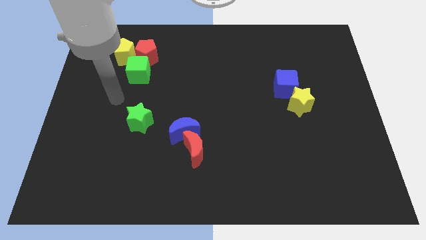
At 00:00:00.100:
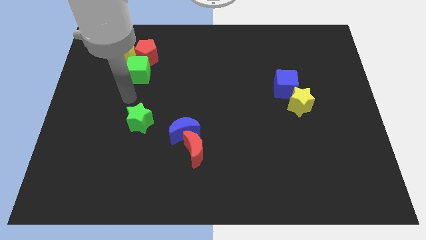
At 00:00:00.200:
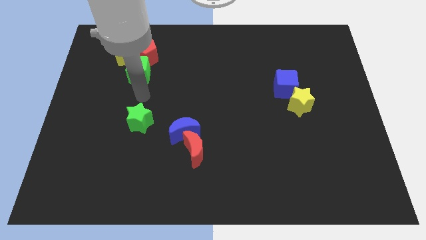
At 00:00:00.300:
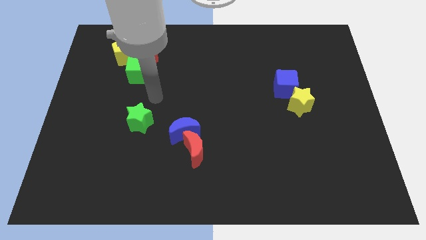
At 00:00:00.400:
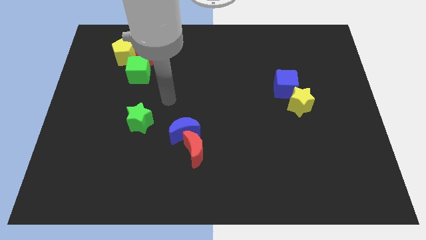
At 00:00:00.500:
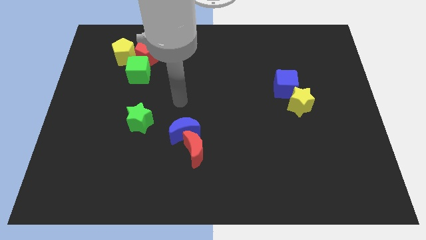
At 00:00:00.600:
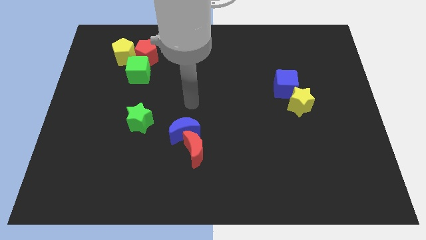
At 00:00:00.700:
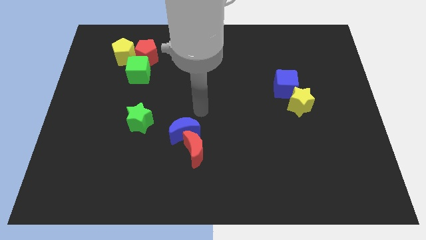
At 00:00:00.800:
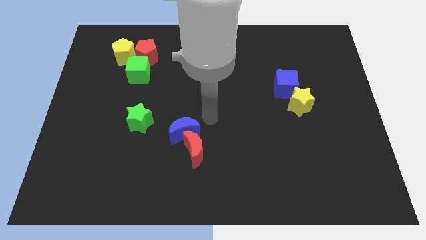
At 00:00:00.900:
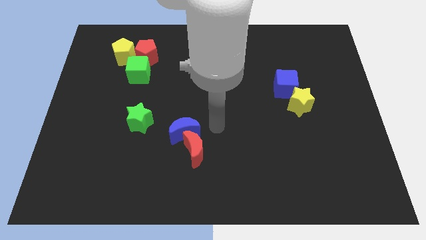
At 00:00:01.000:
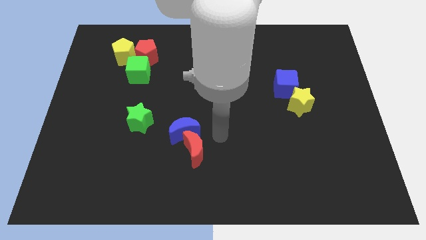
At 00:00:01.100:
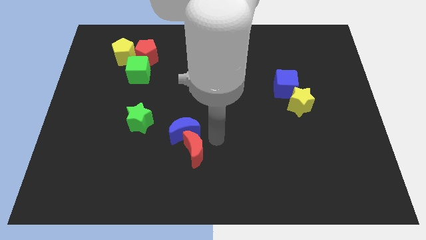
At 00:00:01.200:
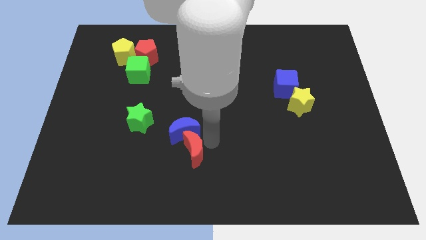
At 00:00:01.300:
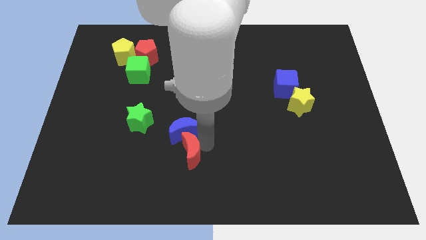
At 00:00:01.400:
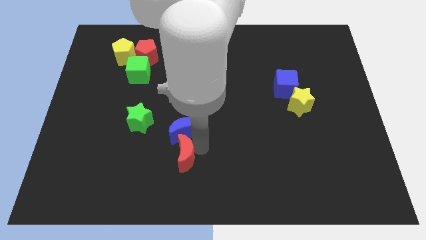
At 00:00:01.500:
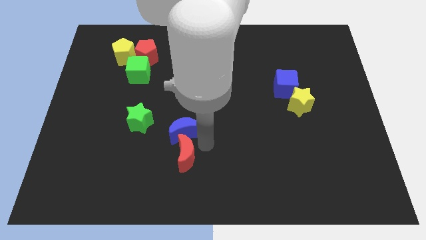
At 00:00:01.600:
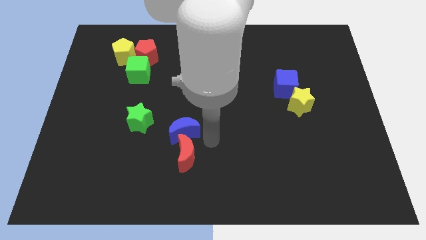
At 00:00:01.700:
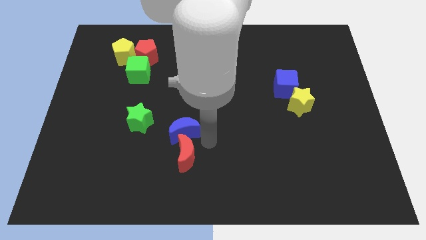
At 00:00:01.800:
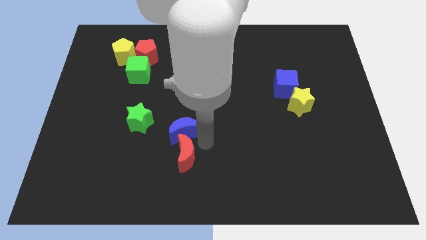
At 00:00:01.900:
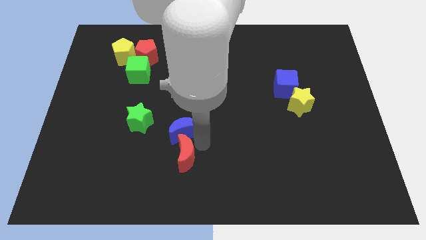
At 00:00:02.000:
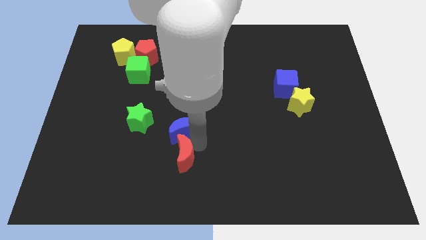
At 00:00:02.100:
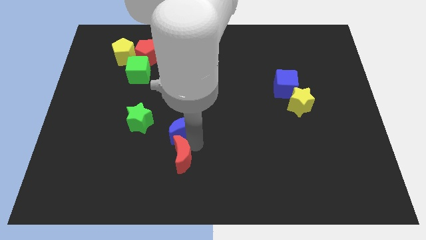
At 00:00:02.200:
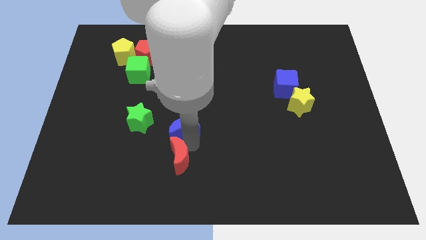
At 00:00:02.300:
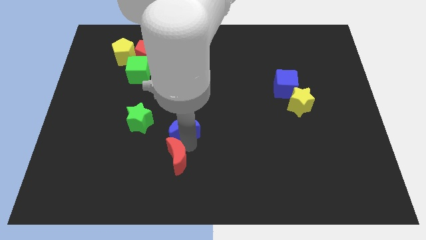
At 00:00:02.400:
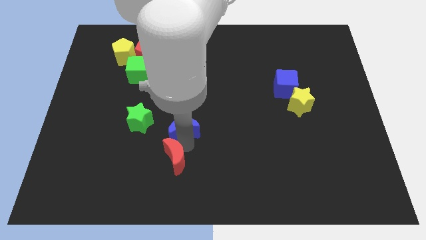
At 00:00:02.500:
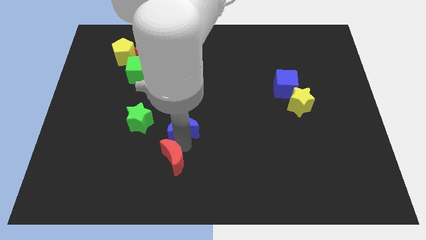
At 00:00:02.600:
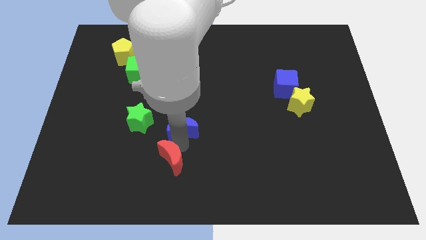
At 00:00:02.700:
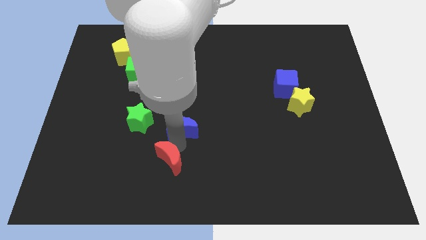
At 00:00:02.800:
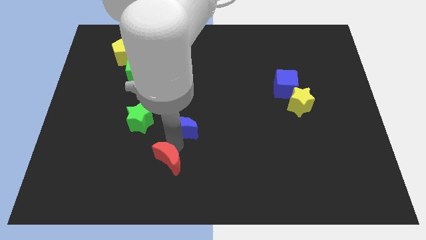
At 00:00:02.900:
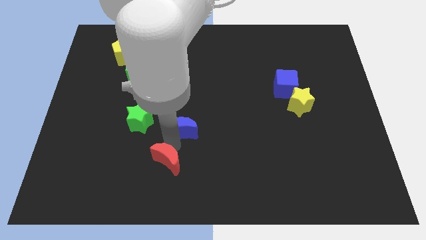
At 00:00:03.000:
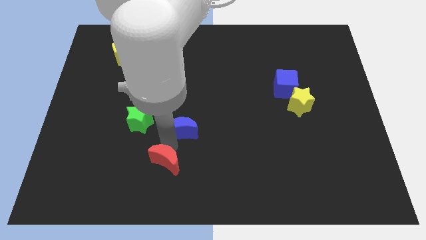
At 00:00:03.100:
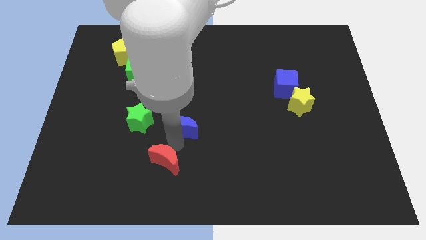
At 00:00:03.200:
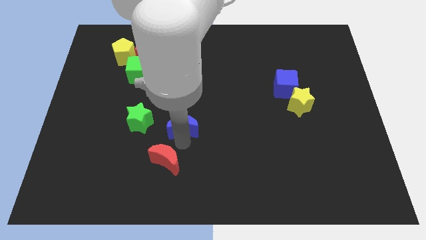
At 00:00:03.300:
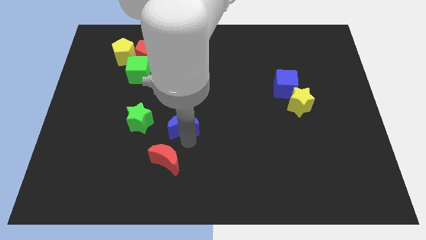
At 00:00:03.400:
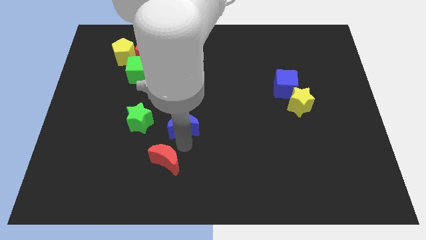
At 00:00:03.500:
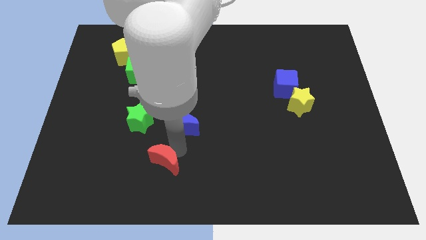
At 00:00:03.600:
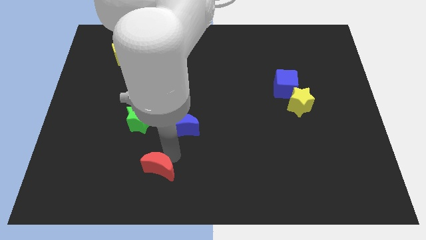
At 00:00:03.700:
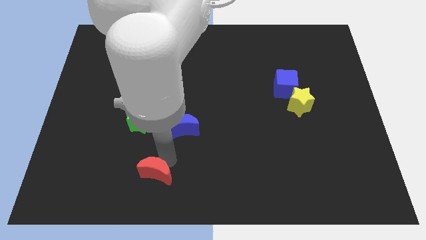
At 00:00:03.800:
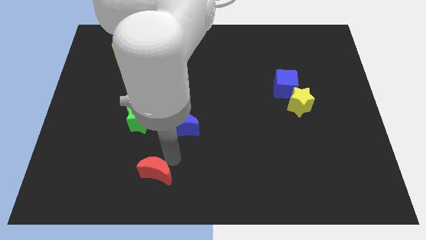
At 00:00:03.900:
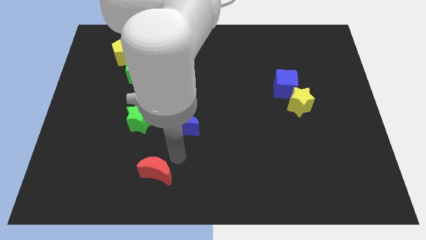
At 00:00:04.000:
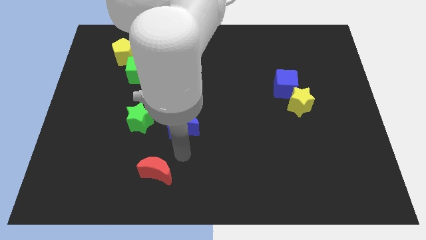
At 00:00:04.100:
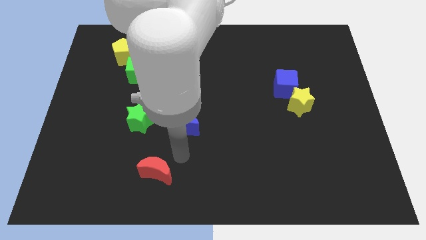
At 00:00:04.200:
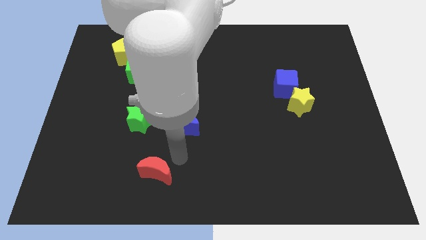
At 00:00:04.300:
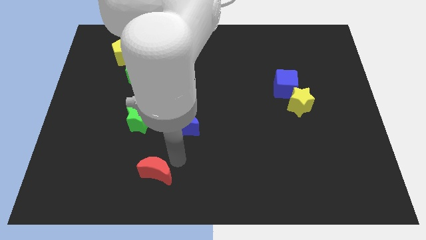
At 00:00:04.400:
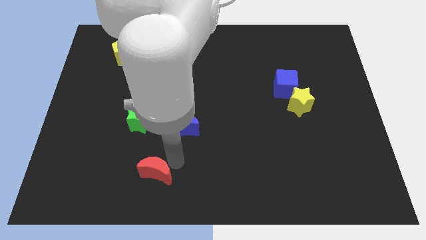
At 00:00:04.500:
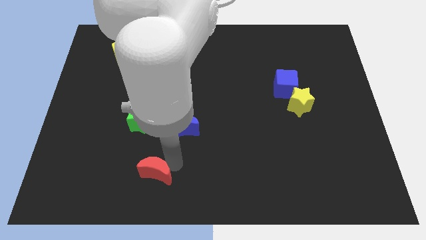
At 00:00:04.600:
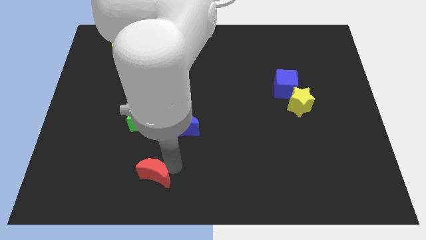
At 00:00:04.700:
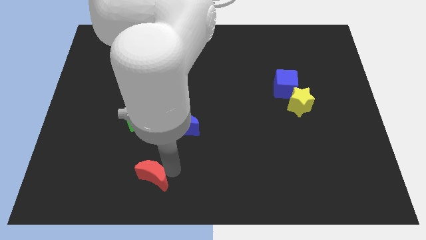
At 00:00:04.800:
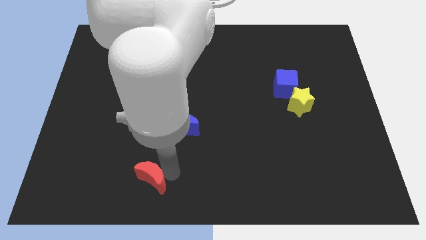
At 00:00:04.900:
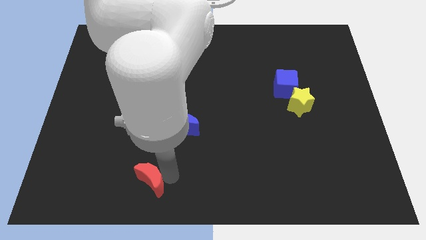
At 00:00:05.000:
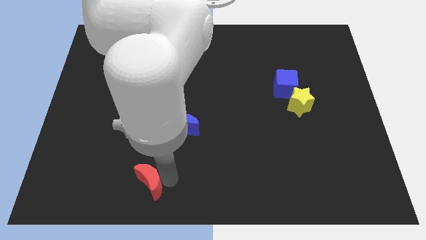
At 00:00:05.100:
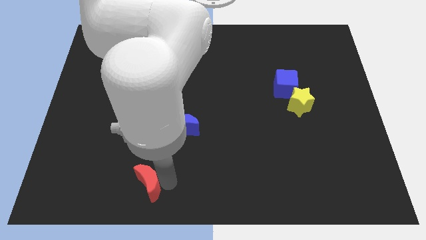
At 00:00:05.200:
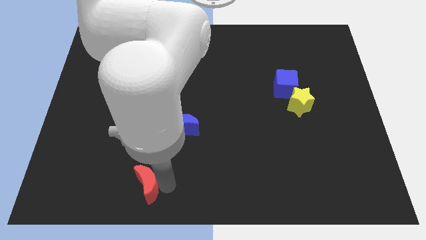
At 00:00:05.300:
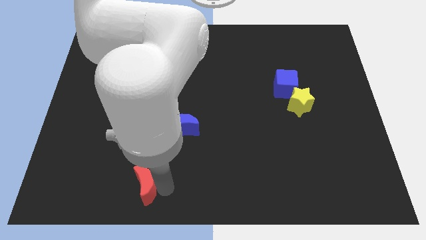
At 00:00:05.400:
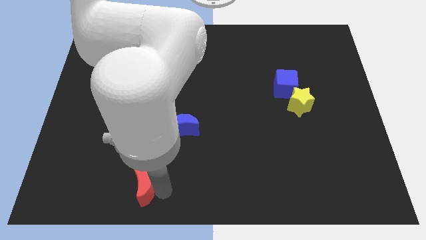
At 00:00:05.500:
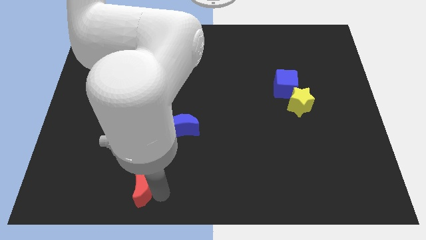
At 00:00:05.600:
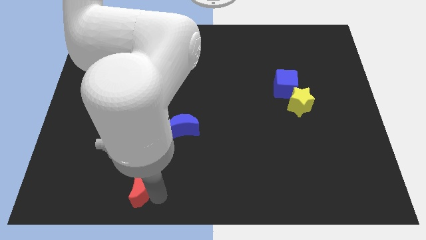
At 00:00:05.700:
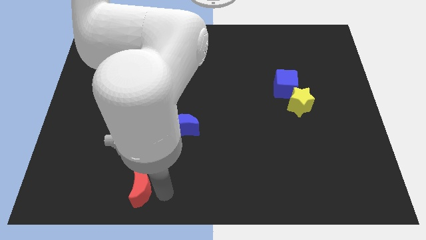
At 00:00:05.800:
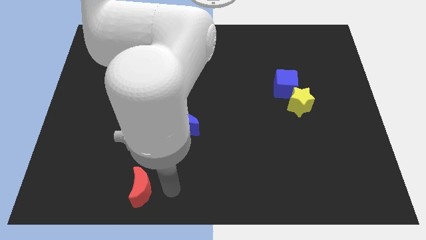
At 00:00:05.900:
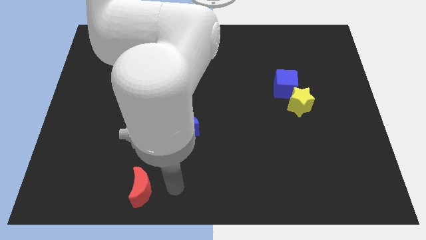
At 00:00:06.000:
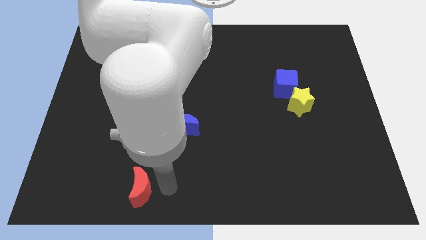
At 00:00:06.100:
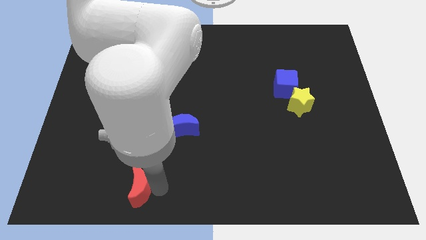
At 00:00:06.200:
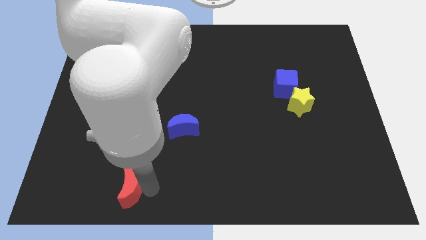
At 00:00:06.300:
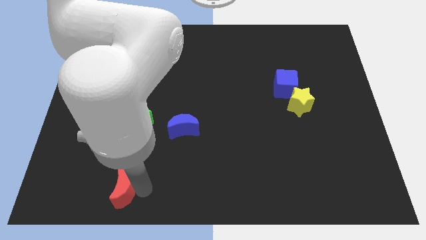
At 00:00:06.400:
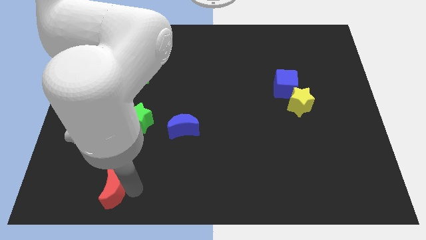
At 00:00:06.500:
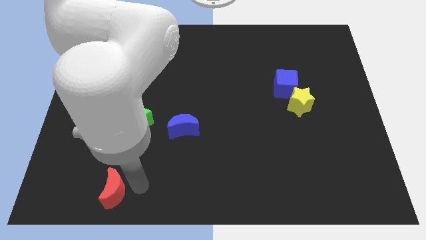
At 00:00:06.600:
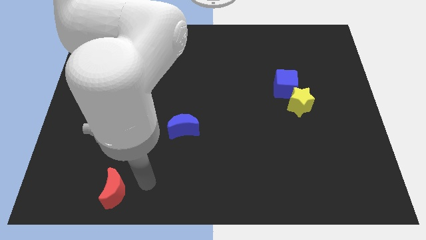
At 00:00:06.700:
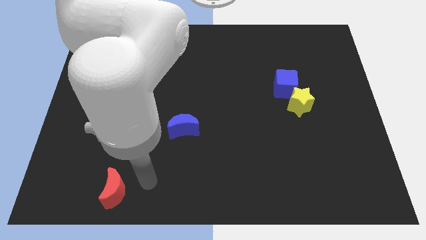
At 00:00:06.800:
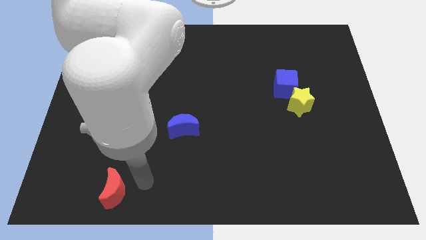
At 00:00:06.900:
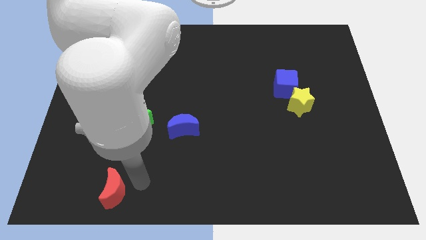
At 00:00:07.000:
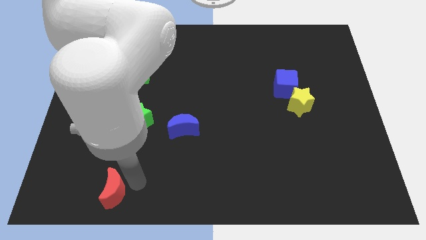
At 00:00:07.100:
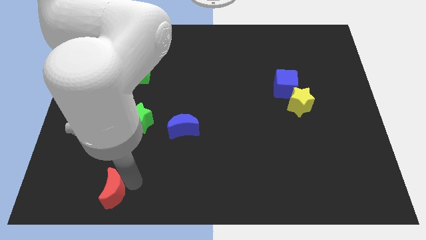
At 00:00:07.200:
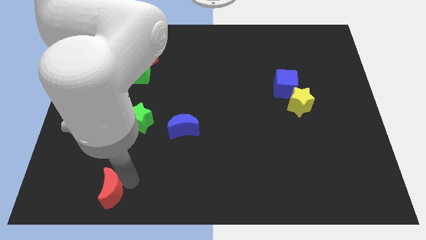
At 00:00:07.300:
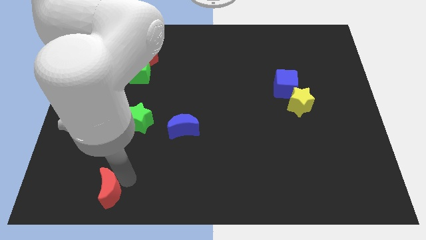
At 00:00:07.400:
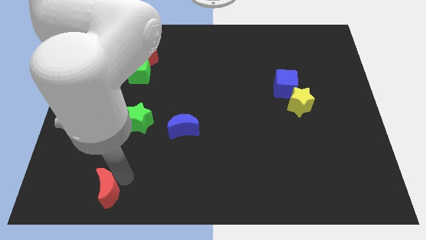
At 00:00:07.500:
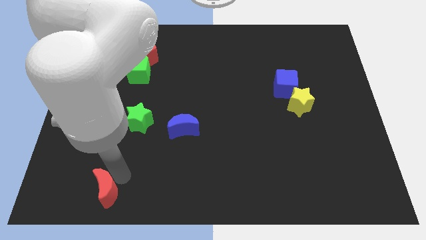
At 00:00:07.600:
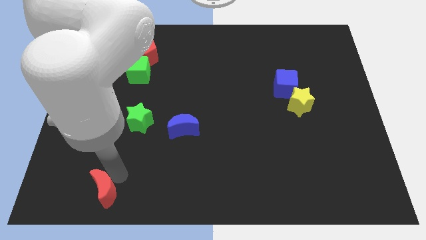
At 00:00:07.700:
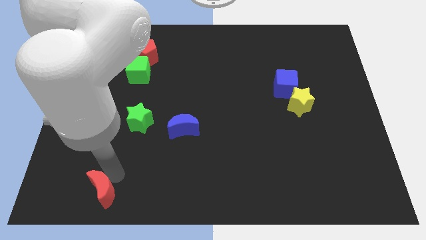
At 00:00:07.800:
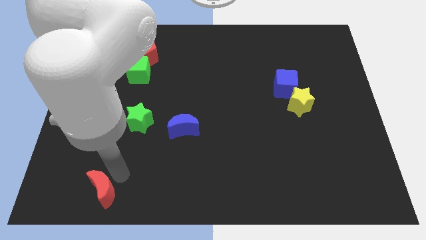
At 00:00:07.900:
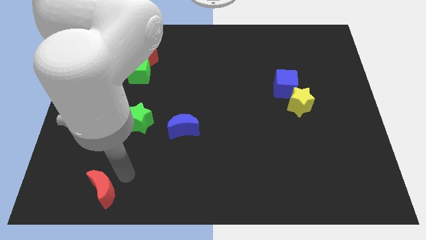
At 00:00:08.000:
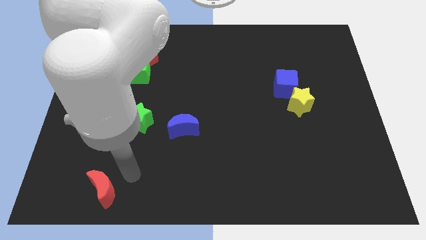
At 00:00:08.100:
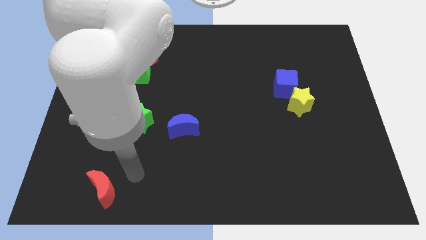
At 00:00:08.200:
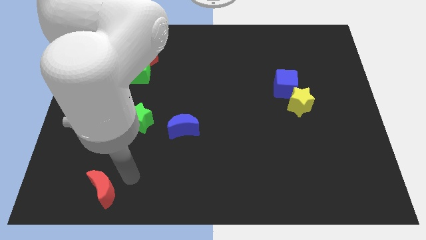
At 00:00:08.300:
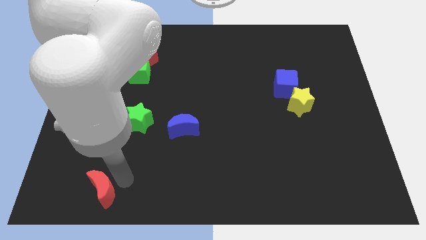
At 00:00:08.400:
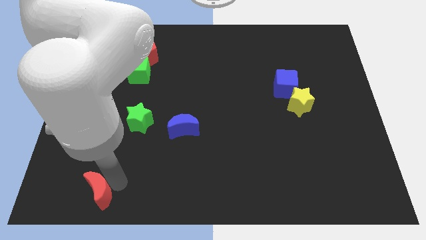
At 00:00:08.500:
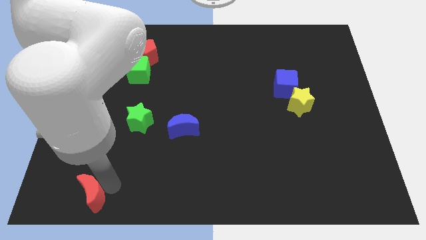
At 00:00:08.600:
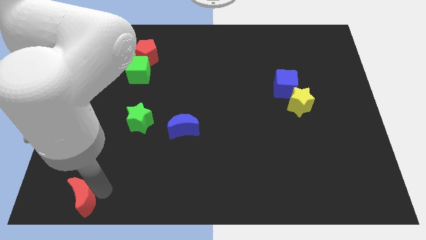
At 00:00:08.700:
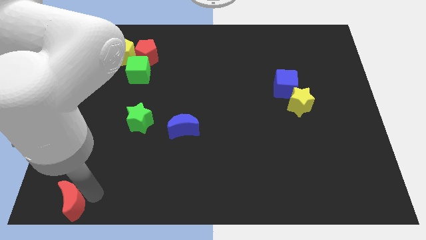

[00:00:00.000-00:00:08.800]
put the red moon to the bottom left
